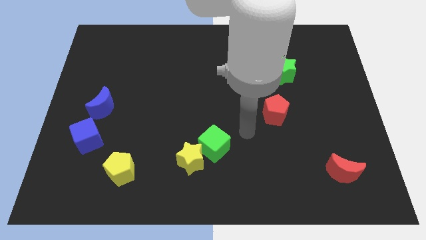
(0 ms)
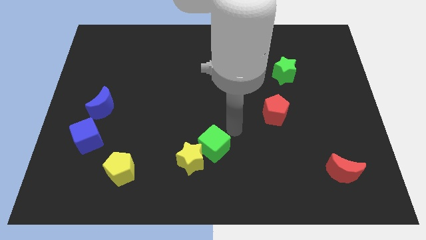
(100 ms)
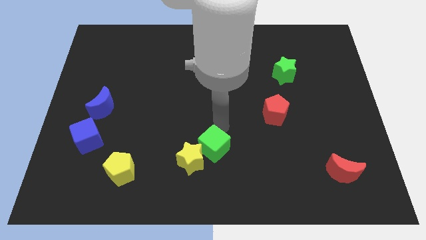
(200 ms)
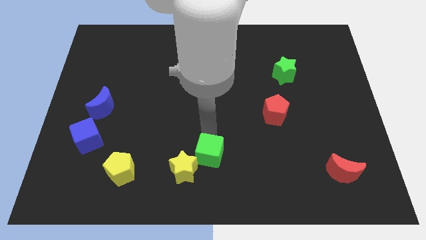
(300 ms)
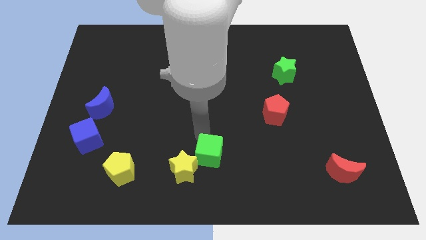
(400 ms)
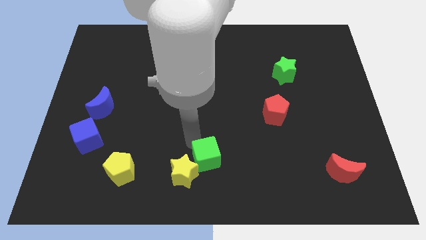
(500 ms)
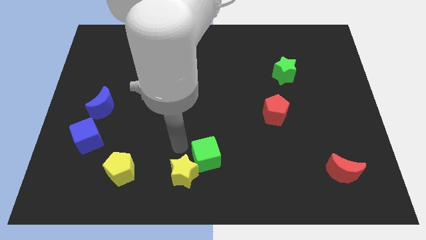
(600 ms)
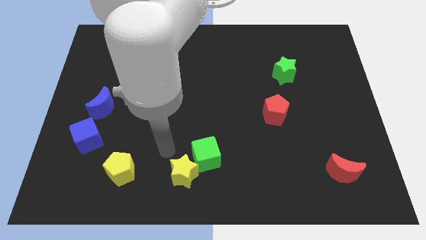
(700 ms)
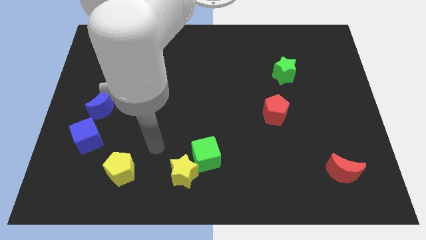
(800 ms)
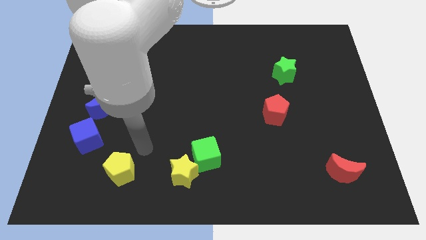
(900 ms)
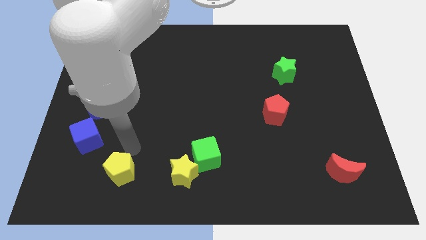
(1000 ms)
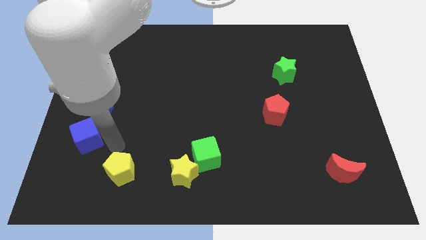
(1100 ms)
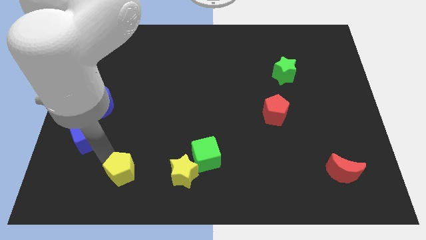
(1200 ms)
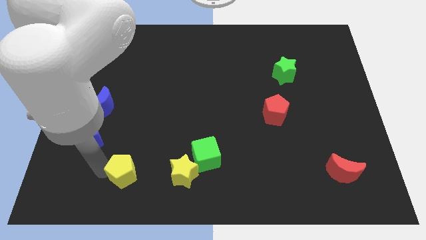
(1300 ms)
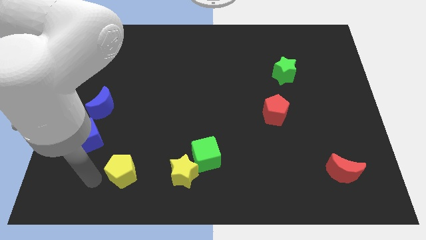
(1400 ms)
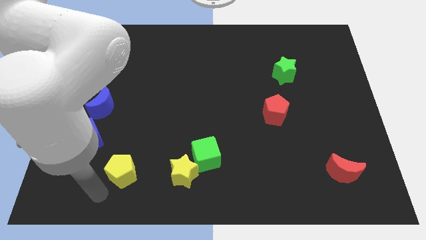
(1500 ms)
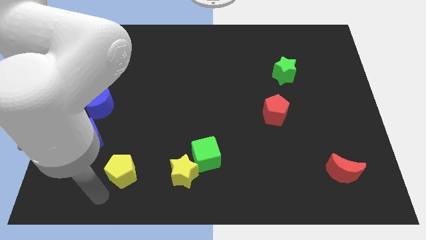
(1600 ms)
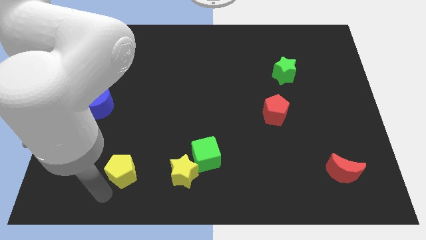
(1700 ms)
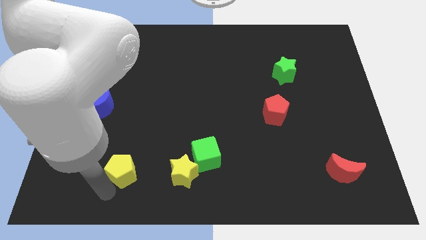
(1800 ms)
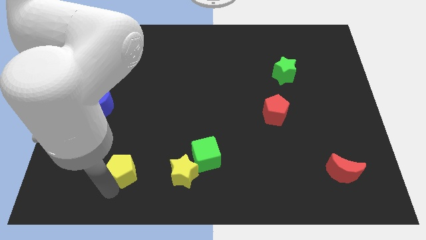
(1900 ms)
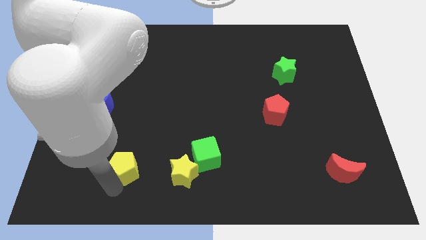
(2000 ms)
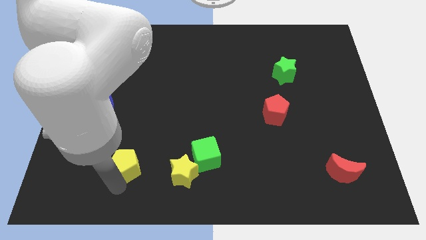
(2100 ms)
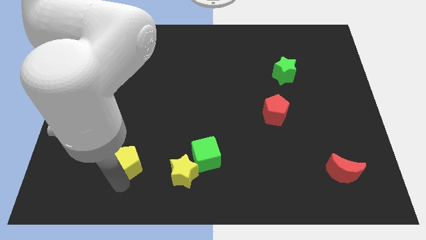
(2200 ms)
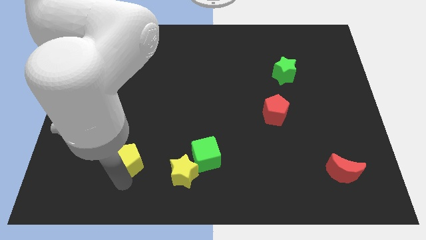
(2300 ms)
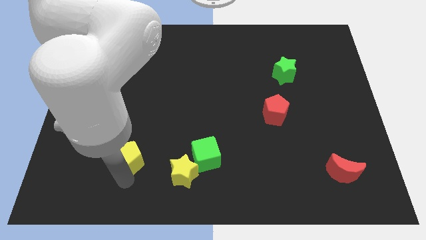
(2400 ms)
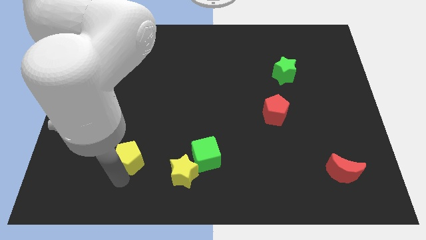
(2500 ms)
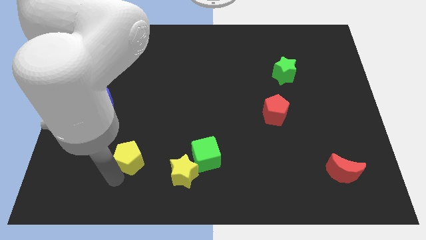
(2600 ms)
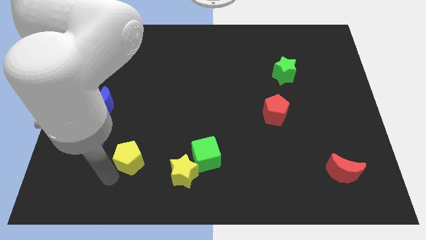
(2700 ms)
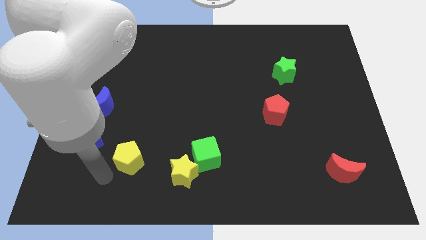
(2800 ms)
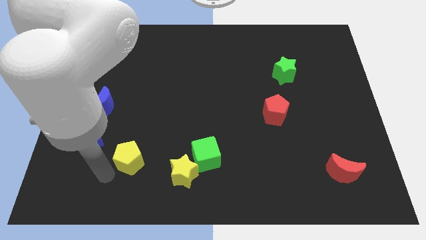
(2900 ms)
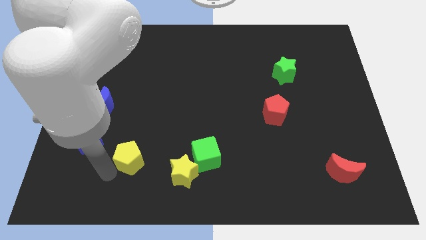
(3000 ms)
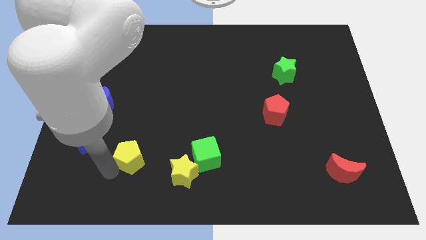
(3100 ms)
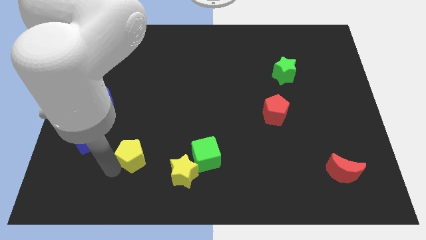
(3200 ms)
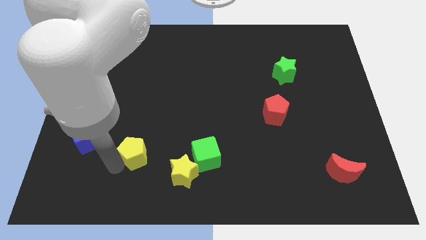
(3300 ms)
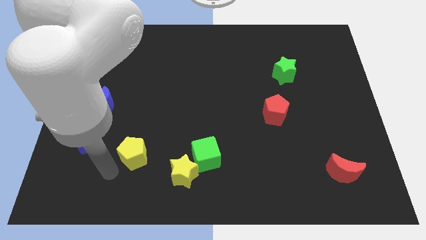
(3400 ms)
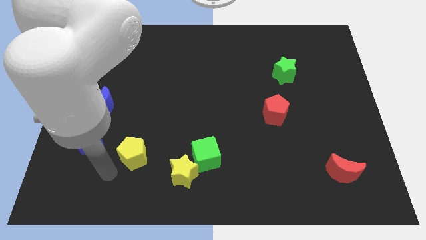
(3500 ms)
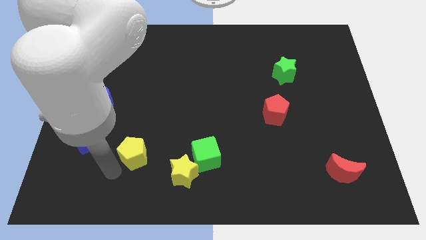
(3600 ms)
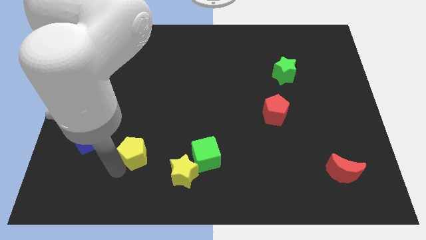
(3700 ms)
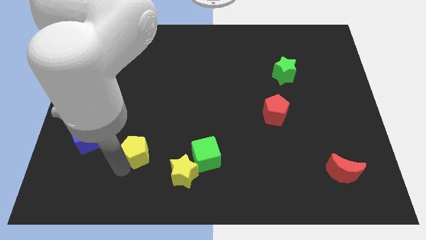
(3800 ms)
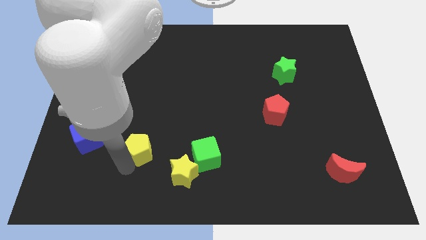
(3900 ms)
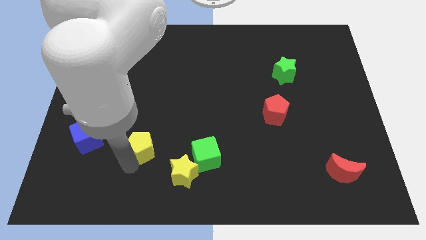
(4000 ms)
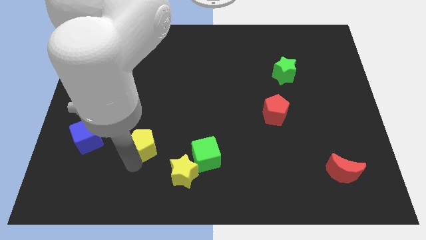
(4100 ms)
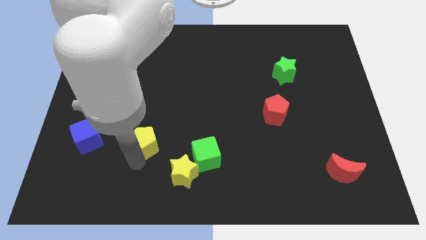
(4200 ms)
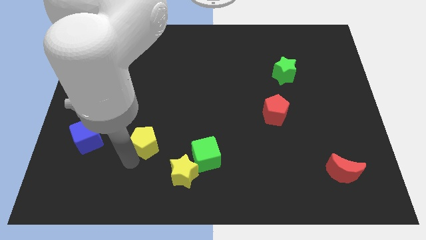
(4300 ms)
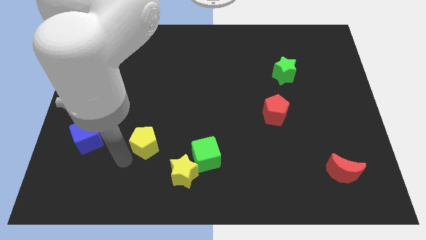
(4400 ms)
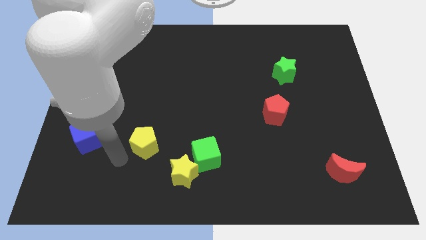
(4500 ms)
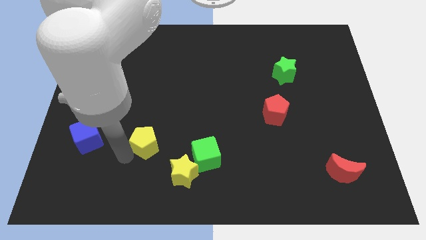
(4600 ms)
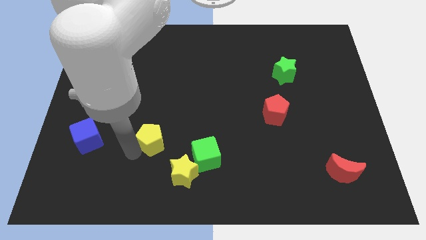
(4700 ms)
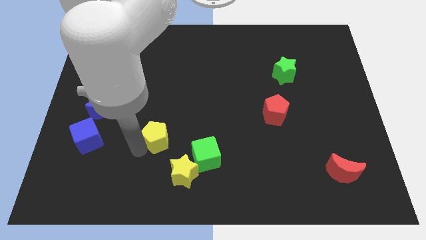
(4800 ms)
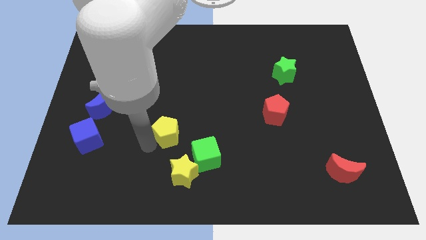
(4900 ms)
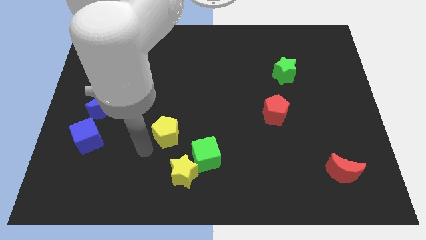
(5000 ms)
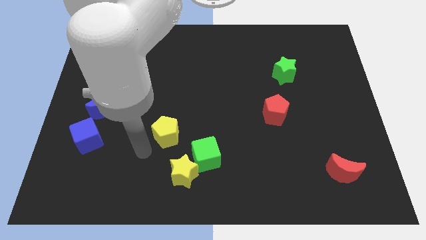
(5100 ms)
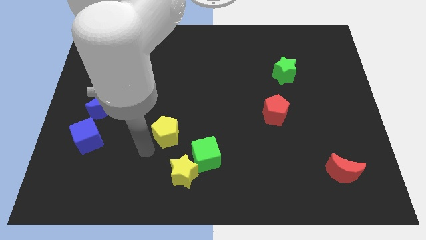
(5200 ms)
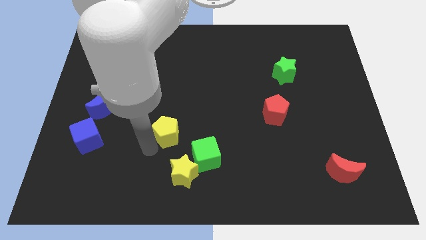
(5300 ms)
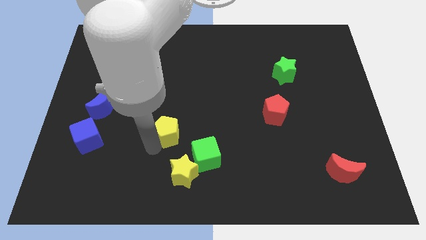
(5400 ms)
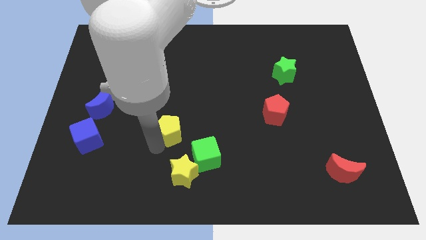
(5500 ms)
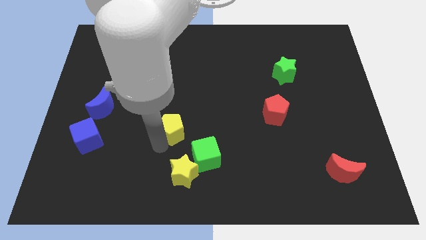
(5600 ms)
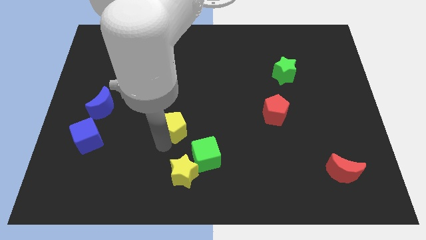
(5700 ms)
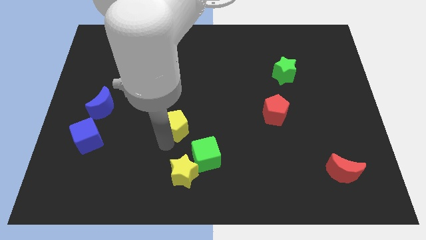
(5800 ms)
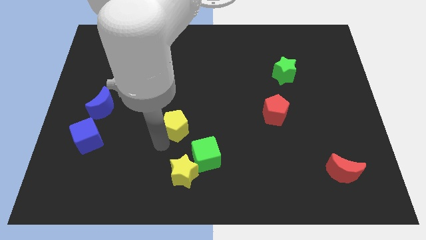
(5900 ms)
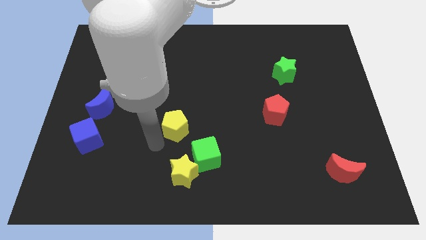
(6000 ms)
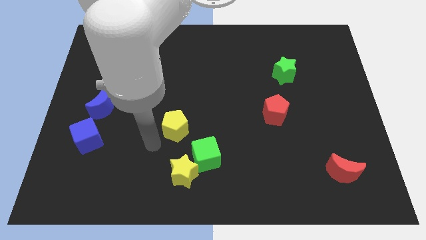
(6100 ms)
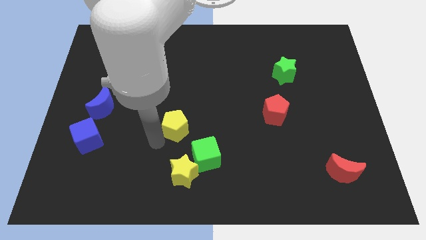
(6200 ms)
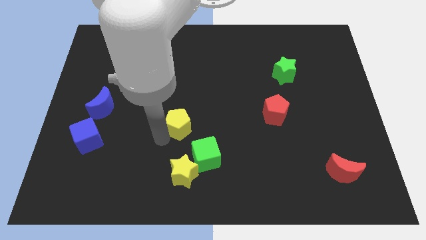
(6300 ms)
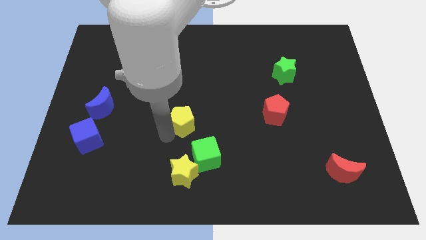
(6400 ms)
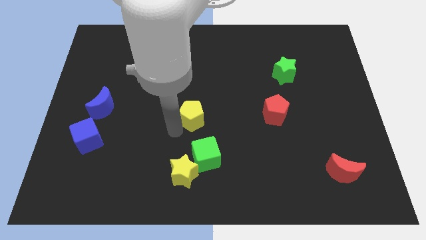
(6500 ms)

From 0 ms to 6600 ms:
slide the yellow pentagon diagonally upwards and to the right

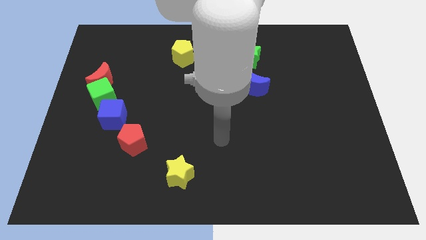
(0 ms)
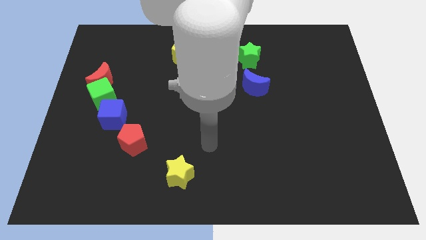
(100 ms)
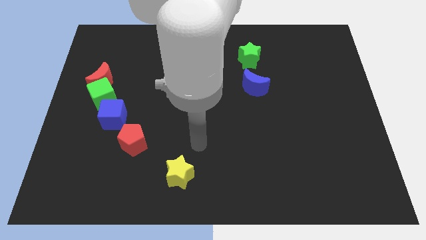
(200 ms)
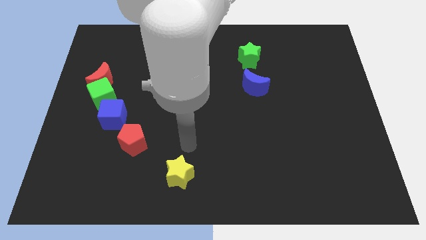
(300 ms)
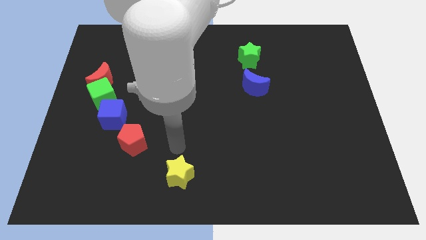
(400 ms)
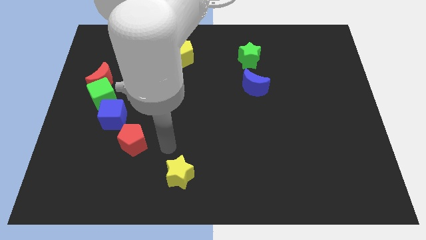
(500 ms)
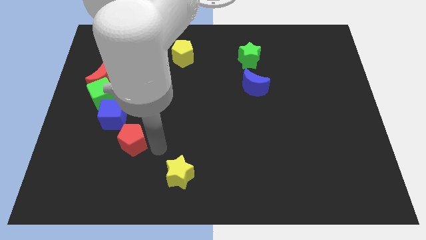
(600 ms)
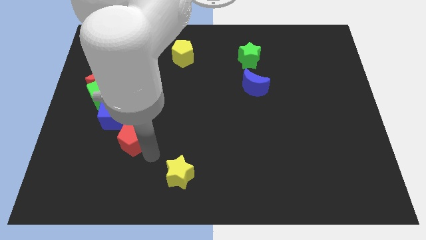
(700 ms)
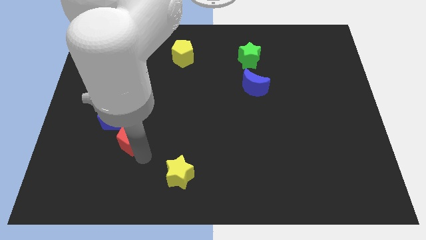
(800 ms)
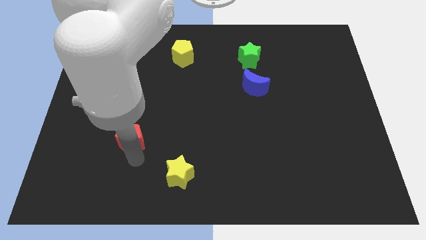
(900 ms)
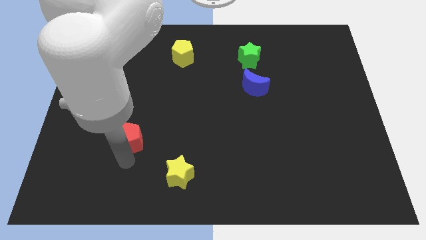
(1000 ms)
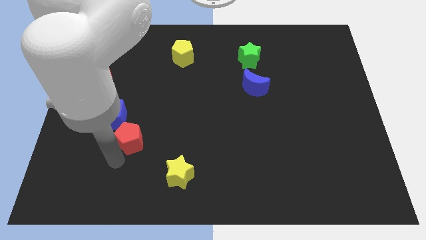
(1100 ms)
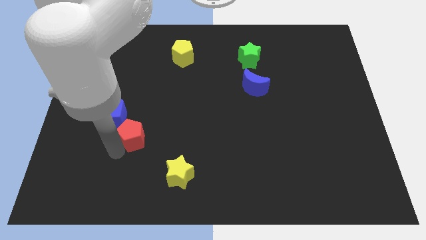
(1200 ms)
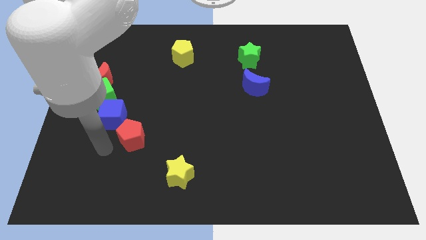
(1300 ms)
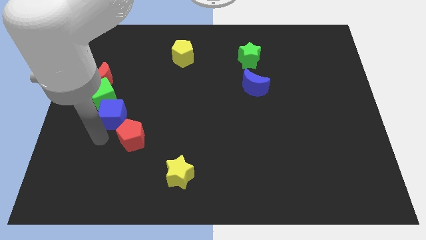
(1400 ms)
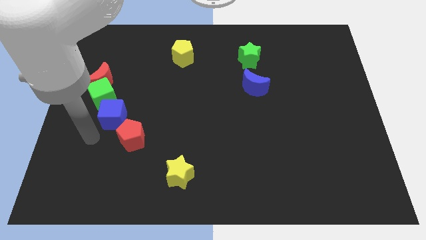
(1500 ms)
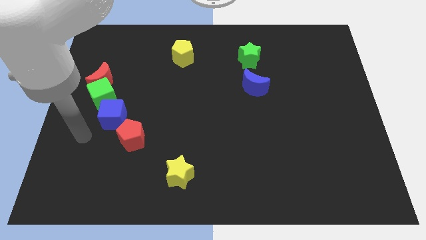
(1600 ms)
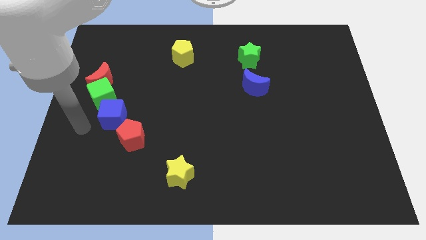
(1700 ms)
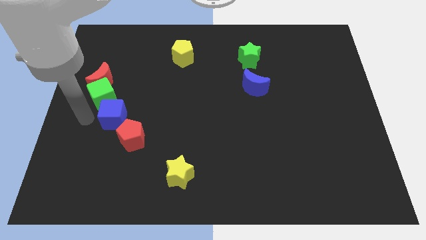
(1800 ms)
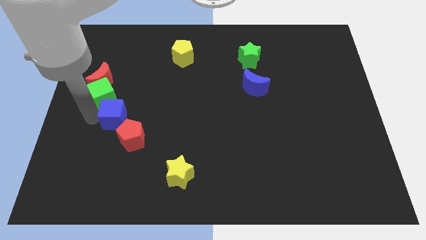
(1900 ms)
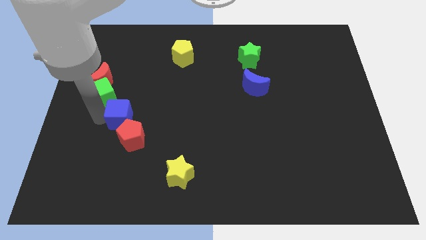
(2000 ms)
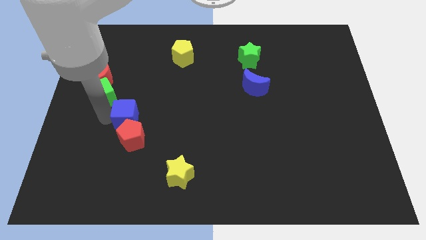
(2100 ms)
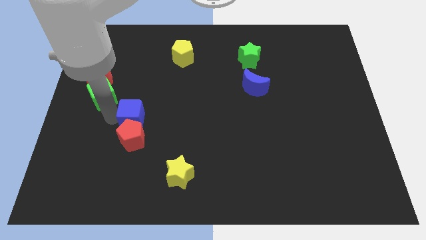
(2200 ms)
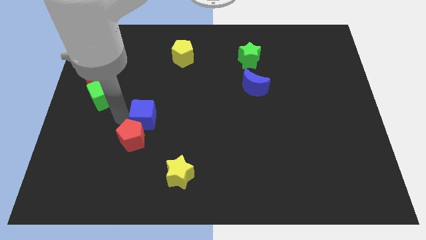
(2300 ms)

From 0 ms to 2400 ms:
slightly move the blue cube right
